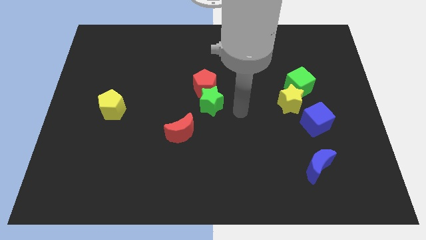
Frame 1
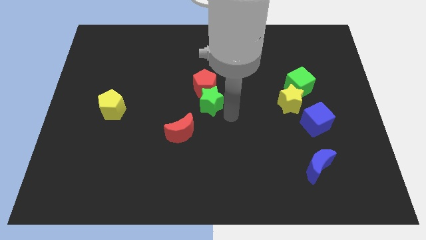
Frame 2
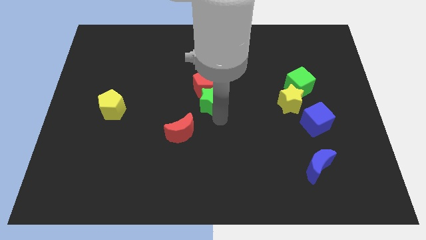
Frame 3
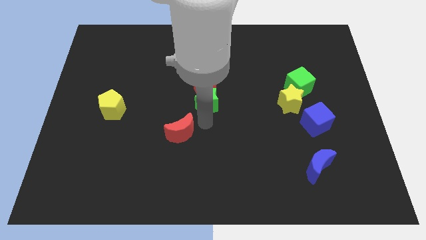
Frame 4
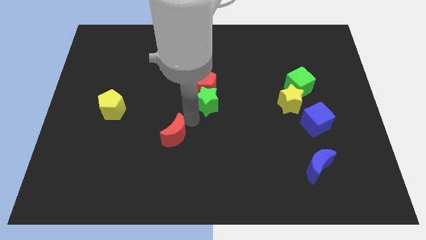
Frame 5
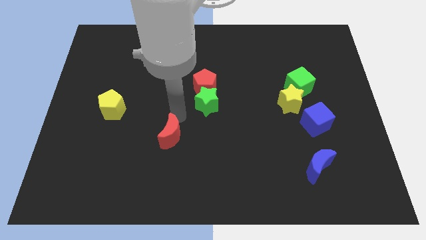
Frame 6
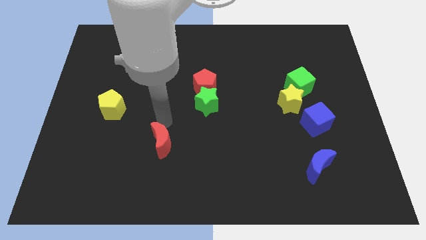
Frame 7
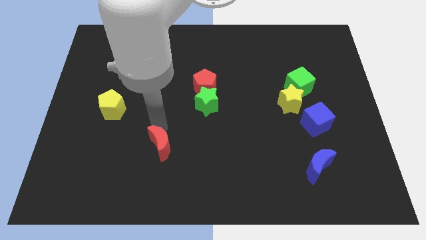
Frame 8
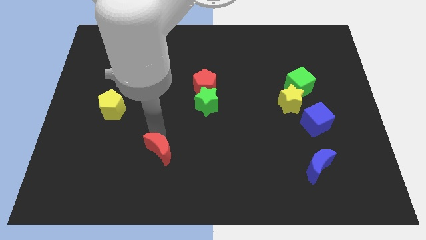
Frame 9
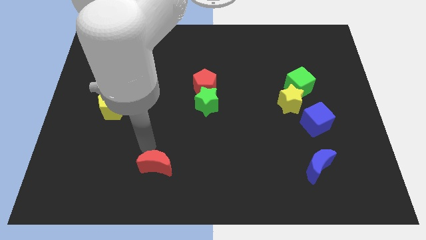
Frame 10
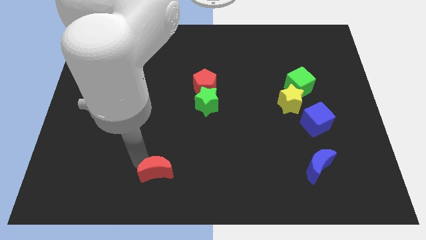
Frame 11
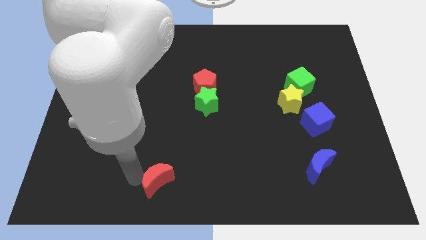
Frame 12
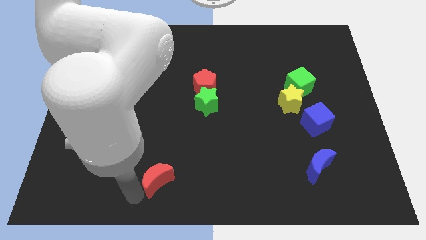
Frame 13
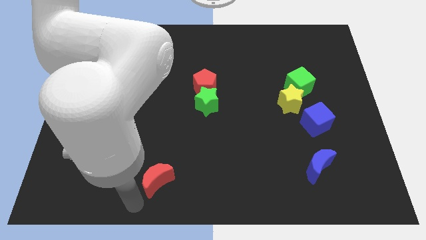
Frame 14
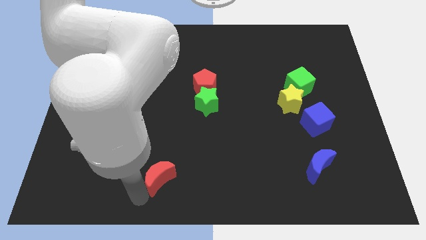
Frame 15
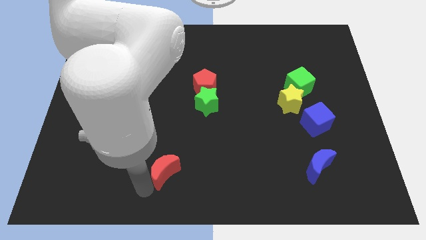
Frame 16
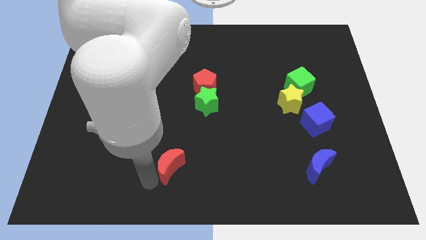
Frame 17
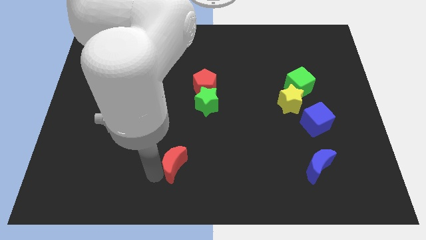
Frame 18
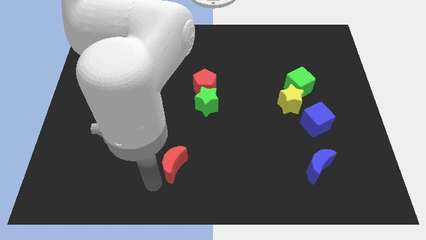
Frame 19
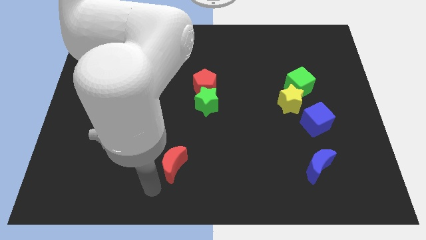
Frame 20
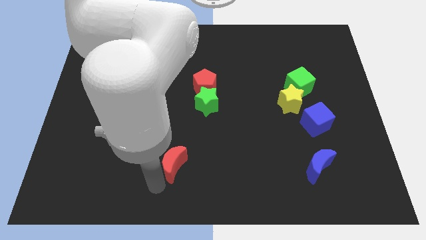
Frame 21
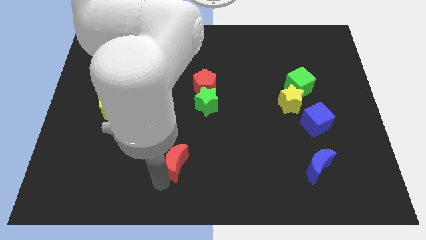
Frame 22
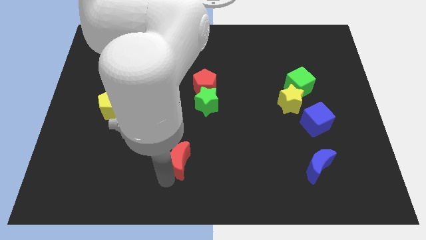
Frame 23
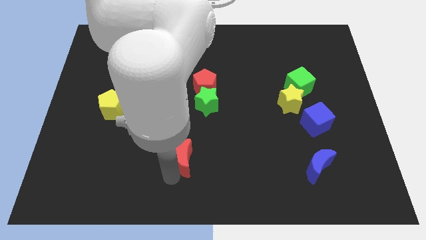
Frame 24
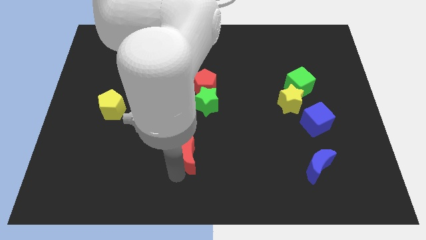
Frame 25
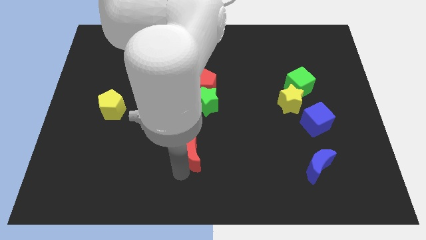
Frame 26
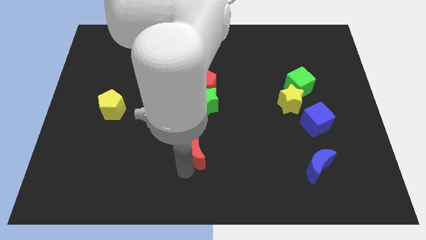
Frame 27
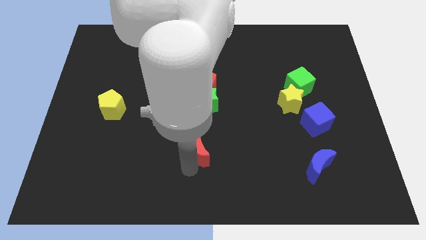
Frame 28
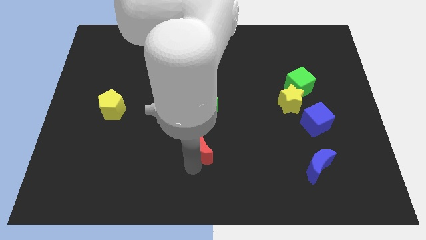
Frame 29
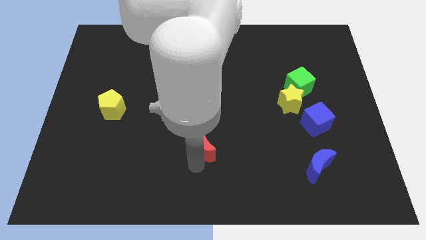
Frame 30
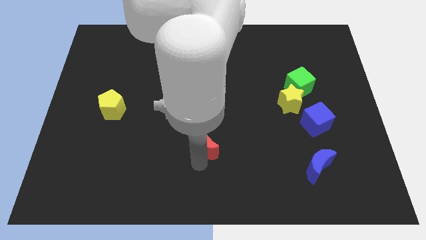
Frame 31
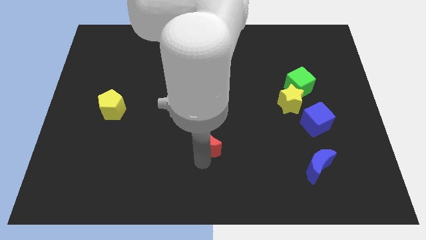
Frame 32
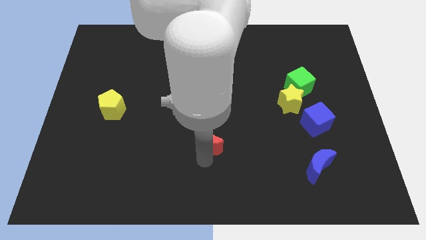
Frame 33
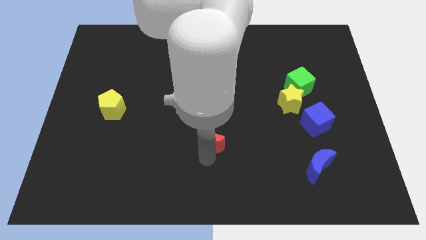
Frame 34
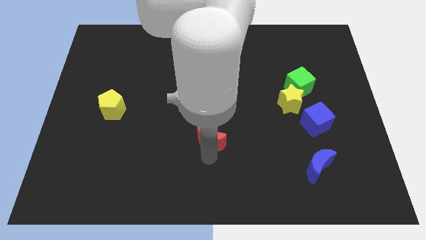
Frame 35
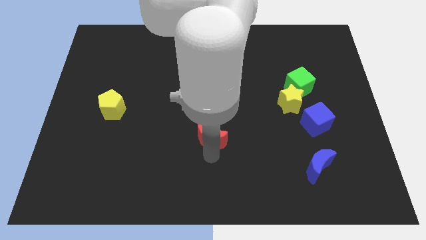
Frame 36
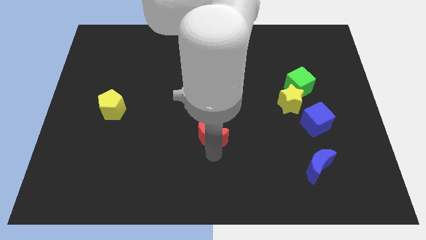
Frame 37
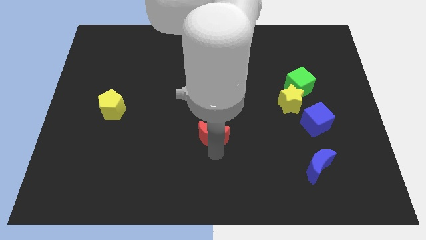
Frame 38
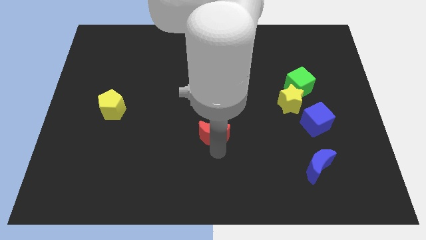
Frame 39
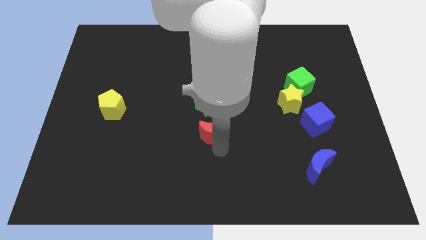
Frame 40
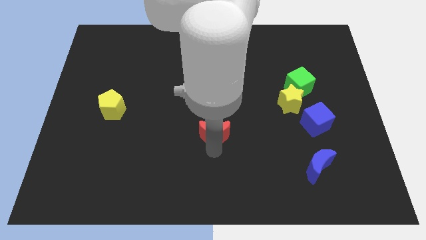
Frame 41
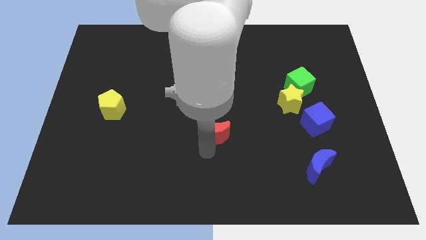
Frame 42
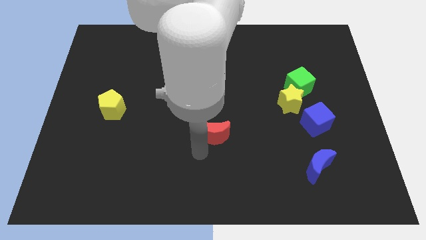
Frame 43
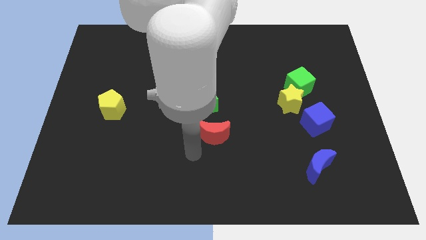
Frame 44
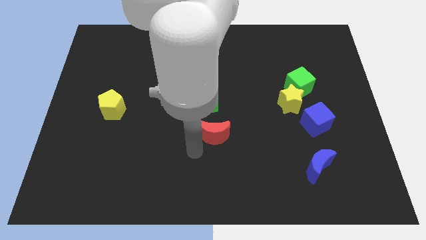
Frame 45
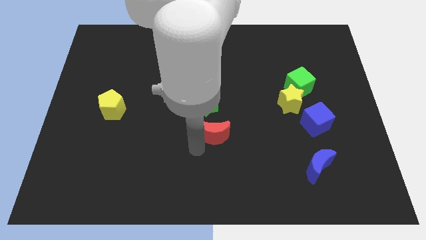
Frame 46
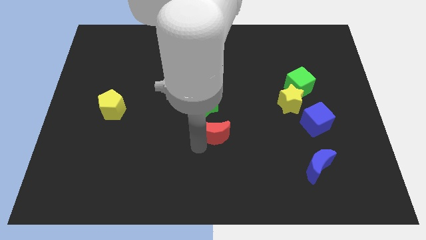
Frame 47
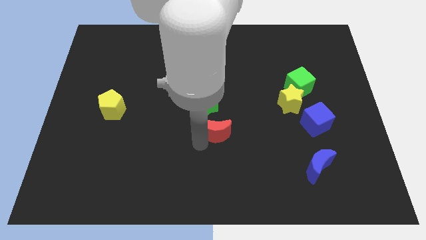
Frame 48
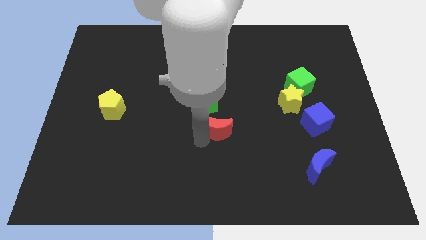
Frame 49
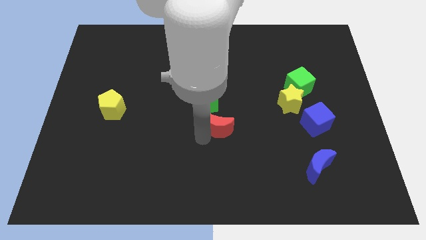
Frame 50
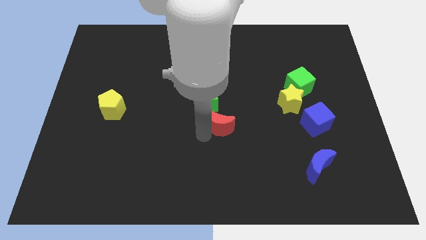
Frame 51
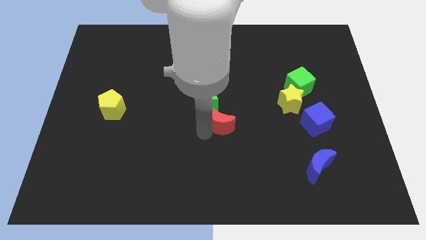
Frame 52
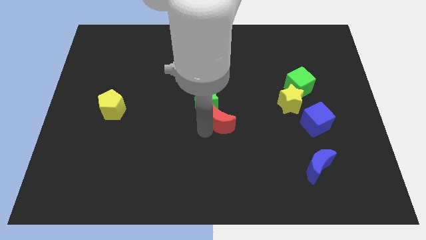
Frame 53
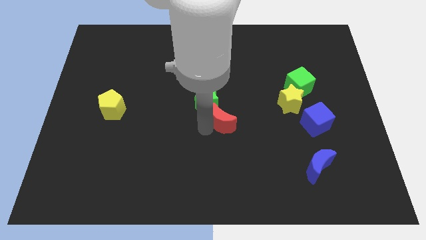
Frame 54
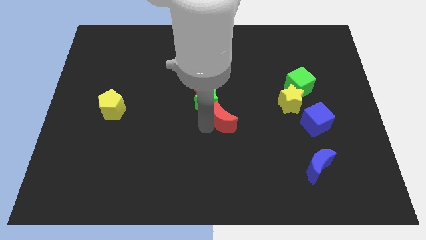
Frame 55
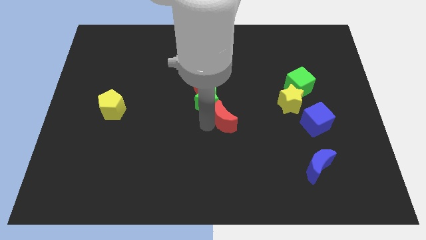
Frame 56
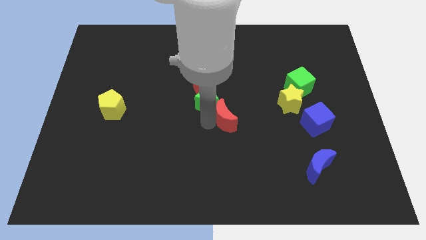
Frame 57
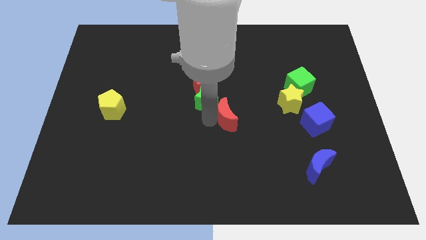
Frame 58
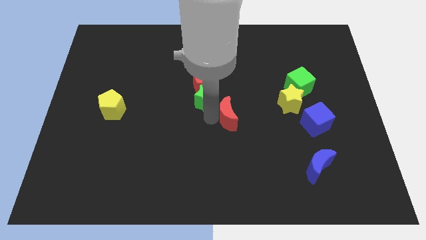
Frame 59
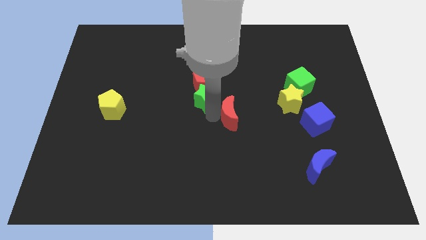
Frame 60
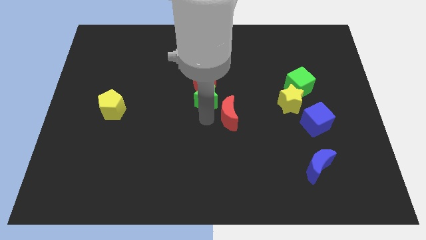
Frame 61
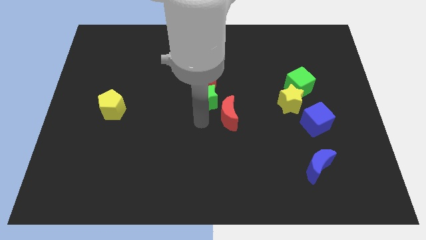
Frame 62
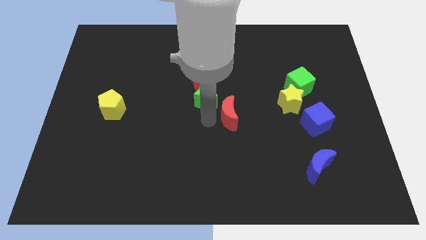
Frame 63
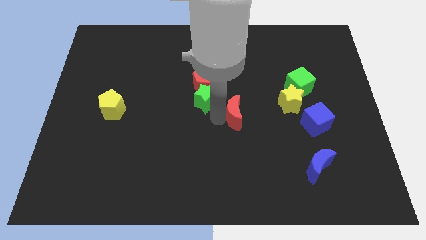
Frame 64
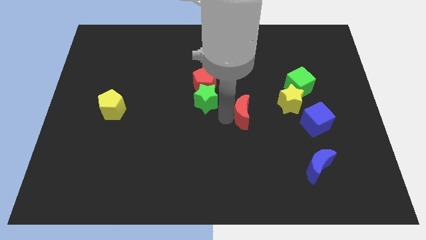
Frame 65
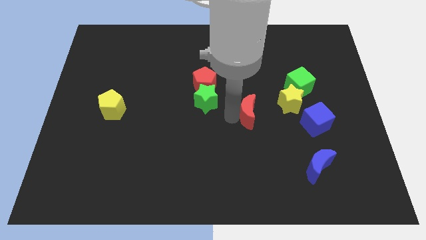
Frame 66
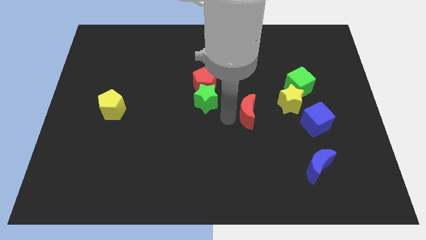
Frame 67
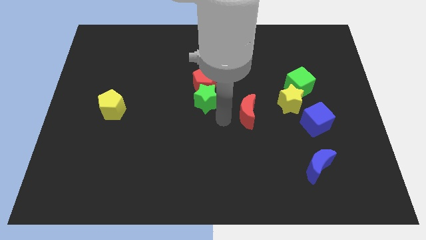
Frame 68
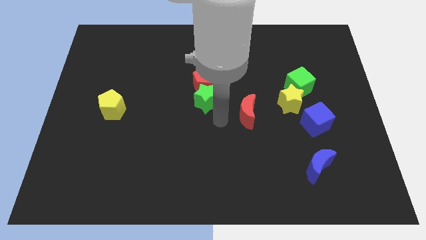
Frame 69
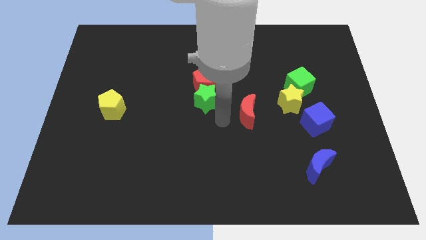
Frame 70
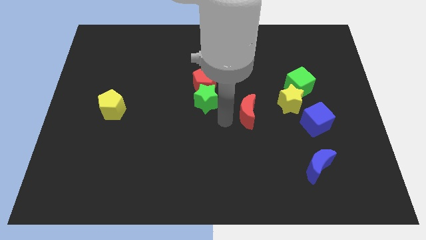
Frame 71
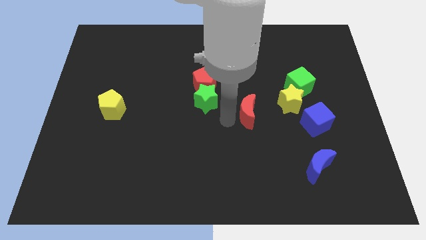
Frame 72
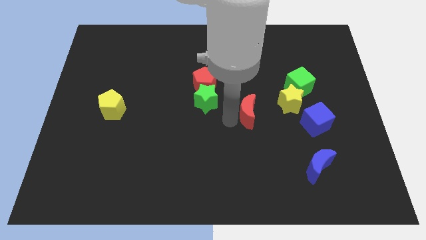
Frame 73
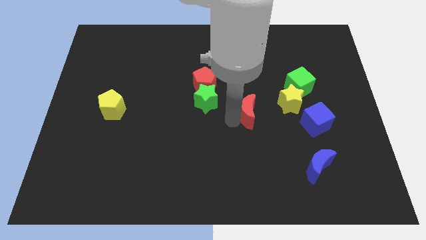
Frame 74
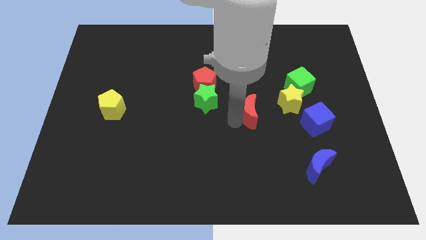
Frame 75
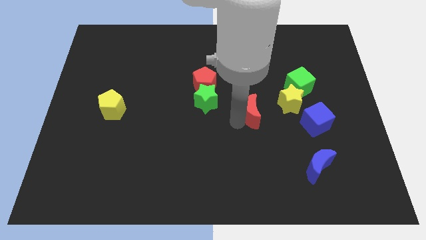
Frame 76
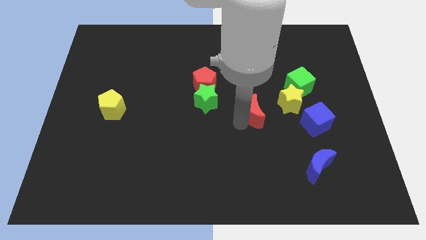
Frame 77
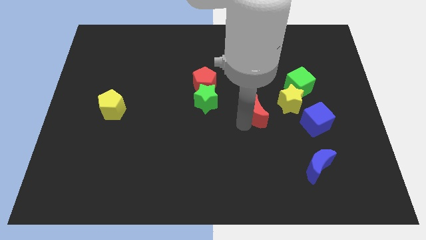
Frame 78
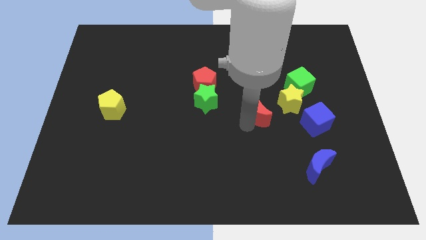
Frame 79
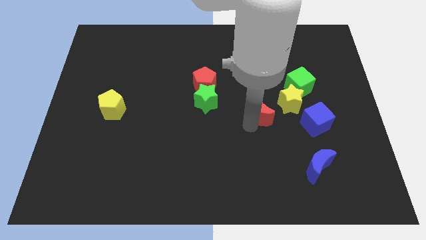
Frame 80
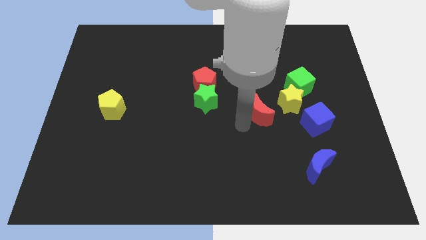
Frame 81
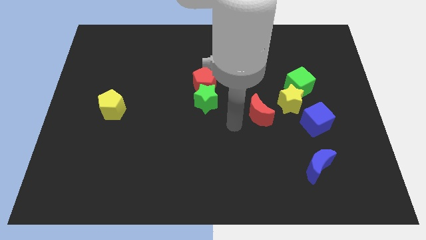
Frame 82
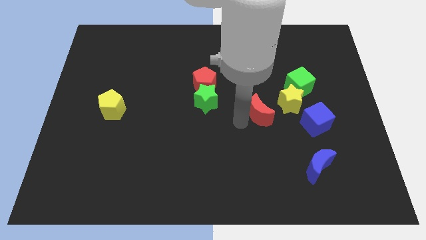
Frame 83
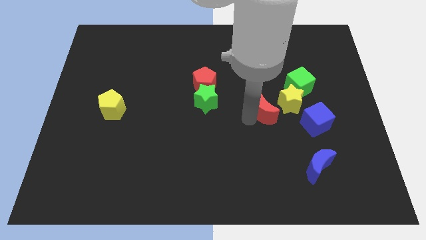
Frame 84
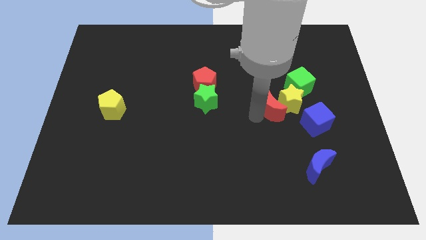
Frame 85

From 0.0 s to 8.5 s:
slide the red moon close to the yellow star
